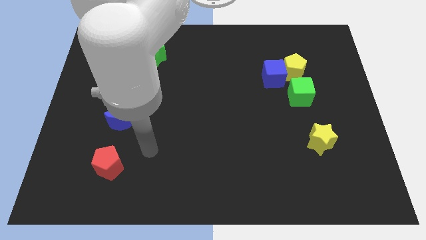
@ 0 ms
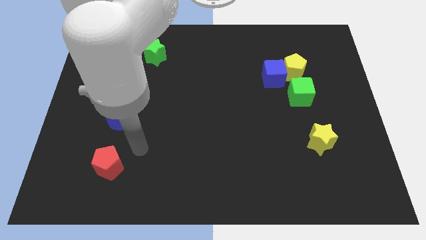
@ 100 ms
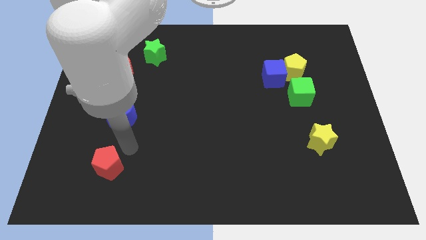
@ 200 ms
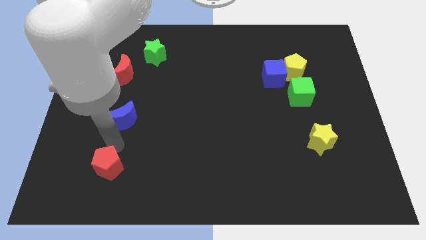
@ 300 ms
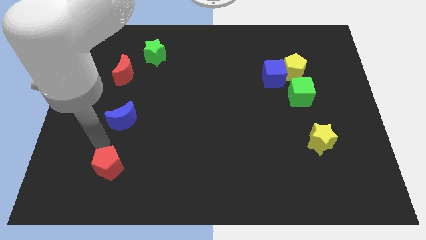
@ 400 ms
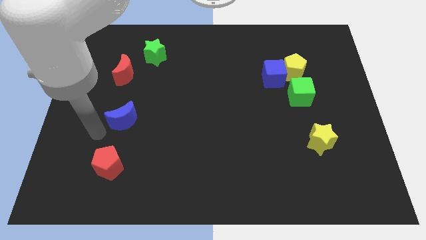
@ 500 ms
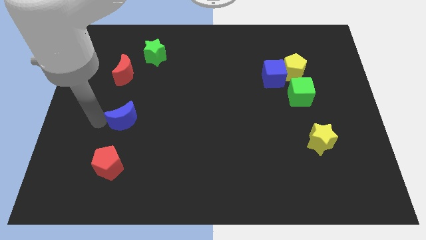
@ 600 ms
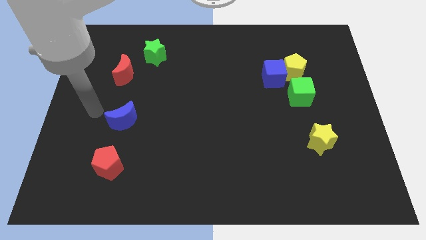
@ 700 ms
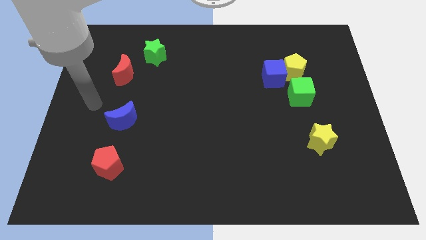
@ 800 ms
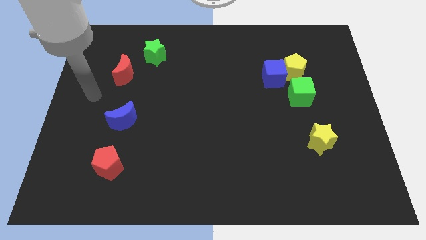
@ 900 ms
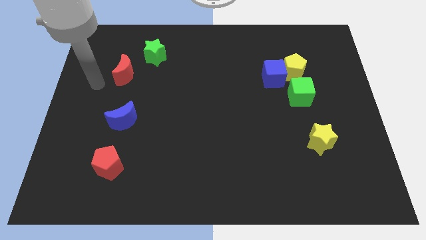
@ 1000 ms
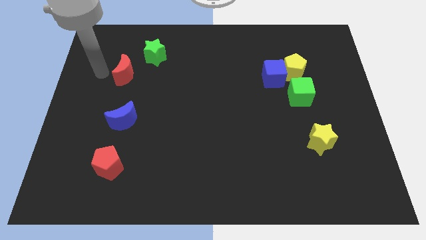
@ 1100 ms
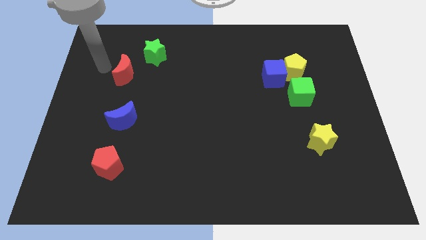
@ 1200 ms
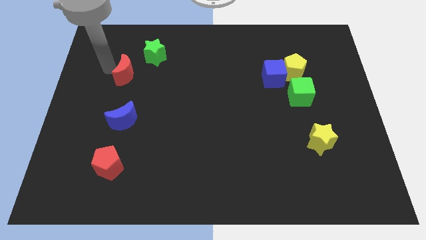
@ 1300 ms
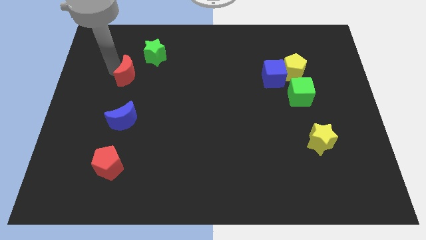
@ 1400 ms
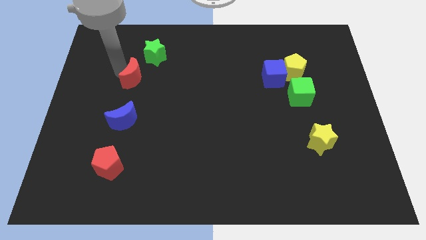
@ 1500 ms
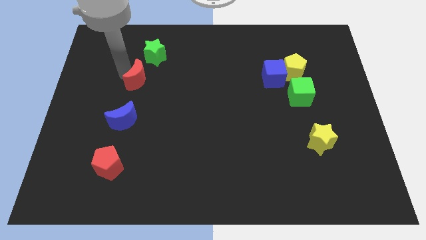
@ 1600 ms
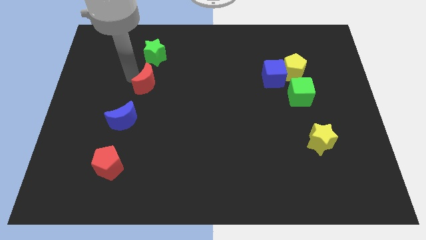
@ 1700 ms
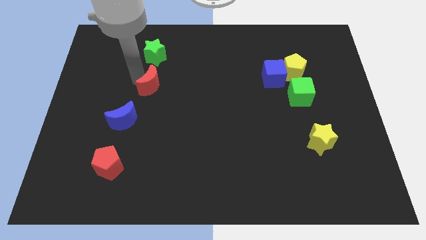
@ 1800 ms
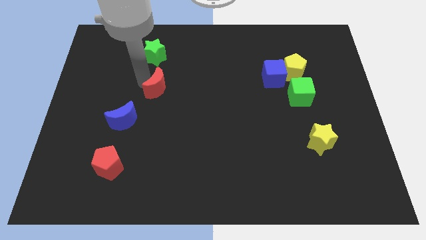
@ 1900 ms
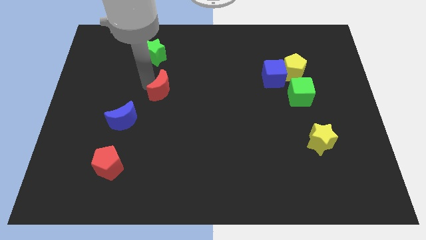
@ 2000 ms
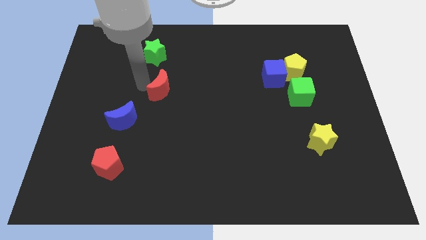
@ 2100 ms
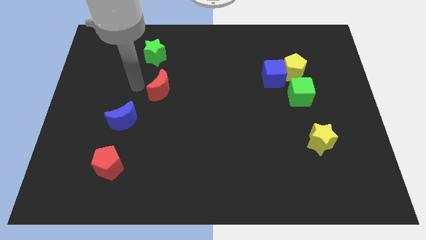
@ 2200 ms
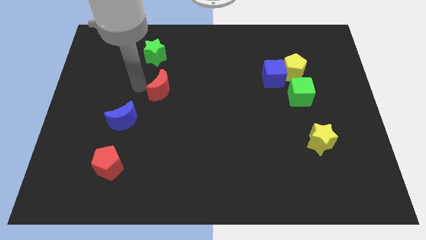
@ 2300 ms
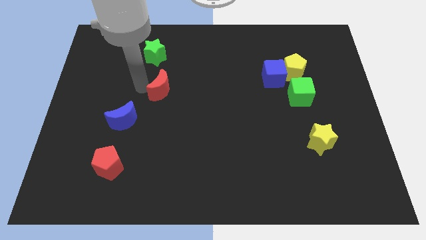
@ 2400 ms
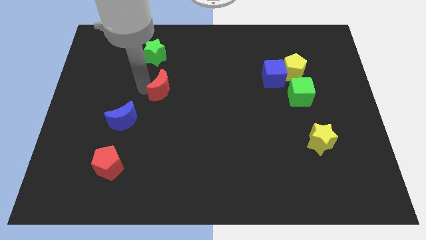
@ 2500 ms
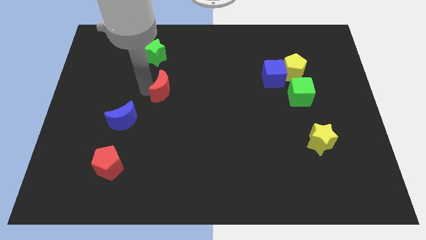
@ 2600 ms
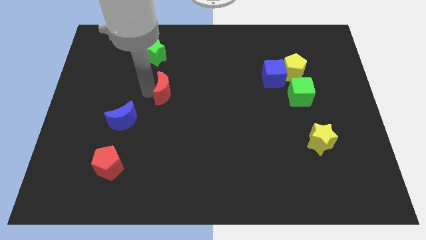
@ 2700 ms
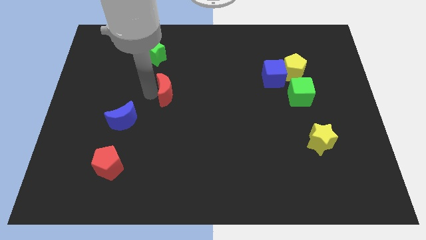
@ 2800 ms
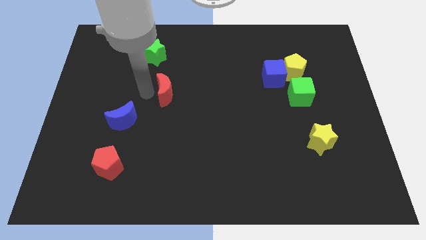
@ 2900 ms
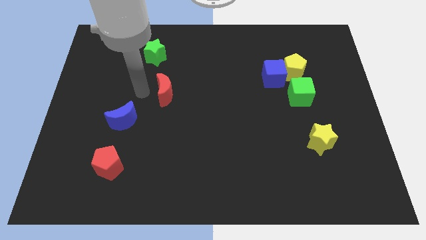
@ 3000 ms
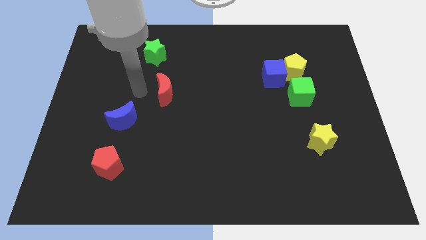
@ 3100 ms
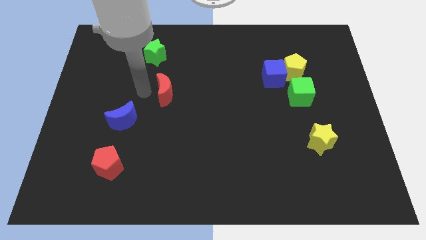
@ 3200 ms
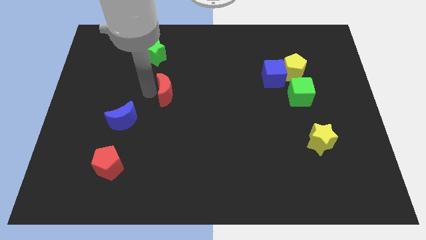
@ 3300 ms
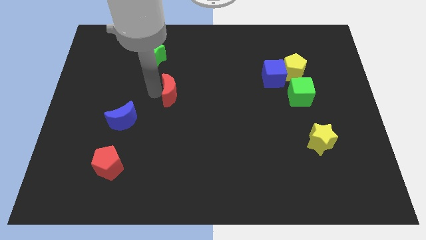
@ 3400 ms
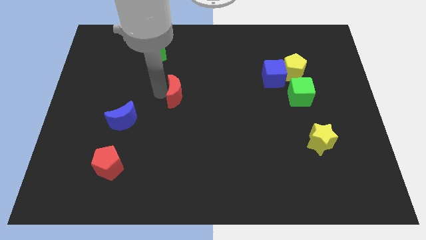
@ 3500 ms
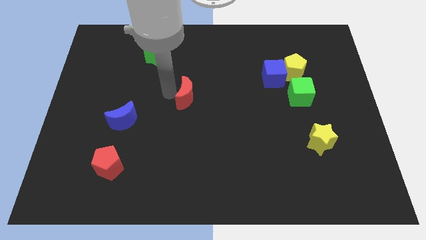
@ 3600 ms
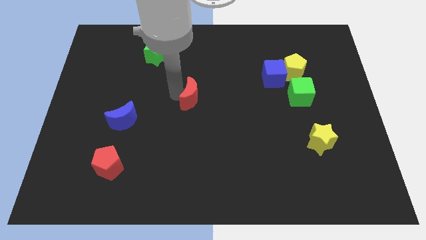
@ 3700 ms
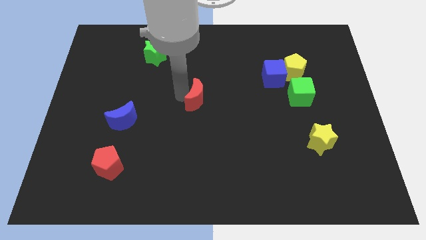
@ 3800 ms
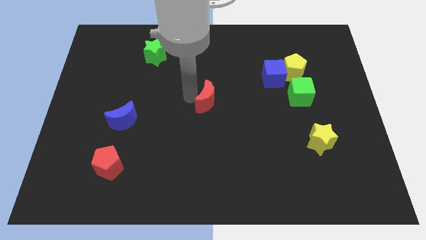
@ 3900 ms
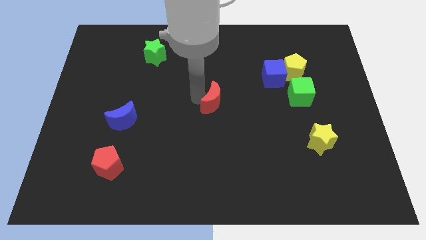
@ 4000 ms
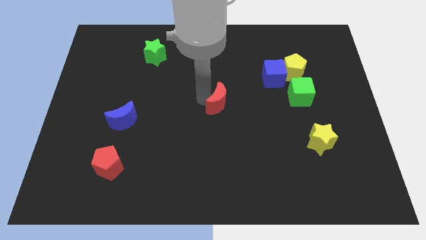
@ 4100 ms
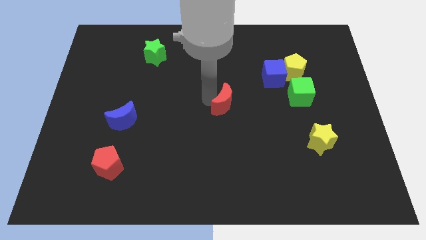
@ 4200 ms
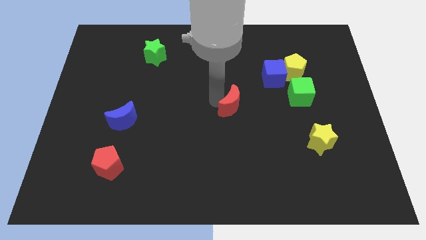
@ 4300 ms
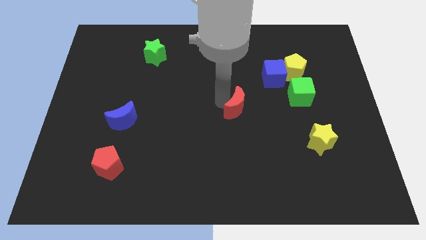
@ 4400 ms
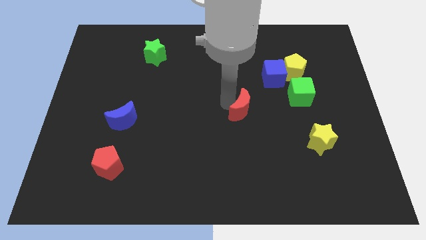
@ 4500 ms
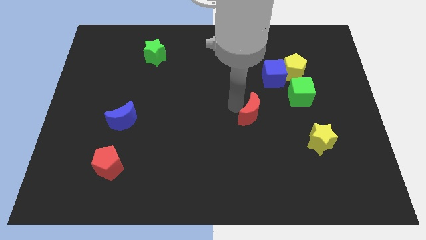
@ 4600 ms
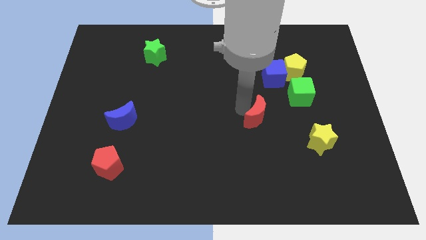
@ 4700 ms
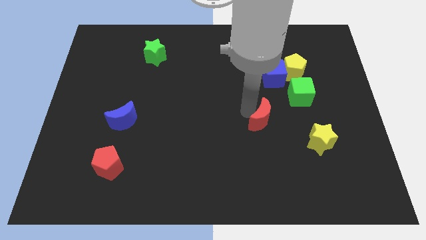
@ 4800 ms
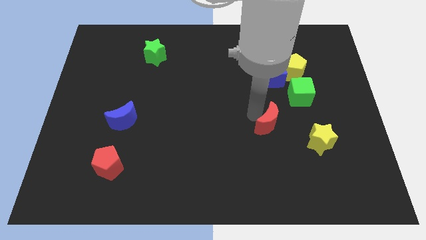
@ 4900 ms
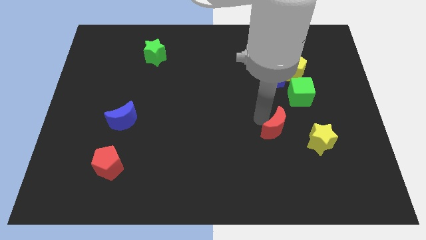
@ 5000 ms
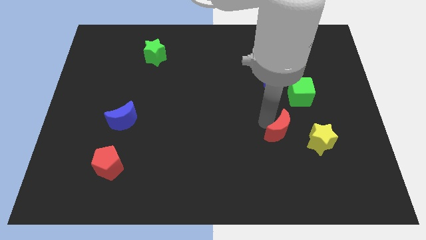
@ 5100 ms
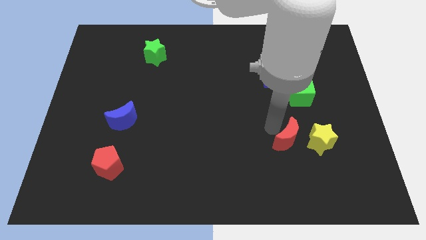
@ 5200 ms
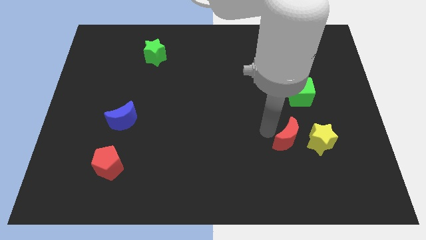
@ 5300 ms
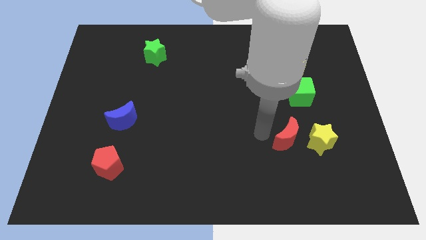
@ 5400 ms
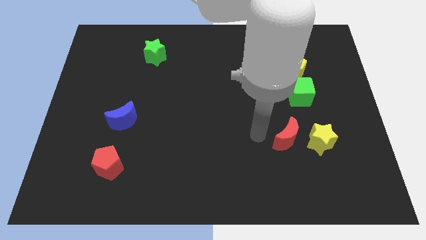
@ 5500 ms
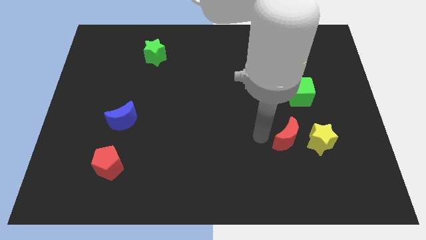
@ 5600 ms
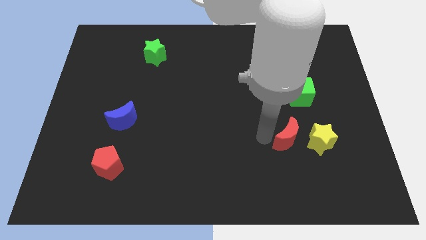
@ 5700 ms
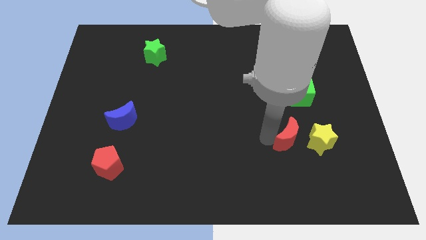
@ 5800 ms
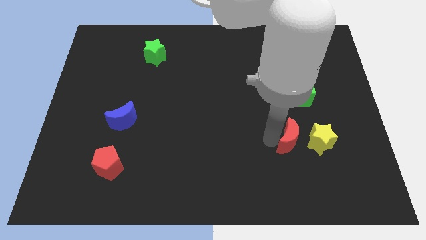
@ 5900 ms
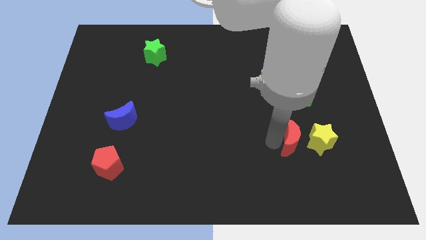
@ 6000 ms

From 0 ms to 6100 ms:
push the red moon to the yellow star

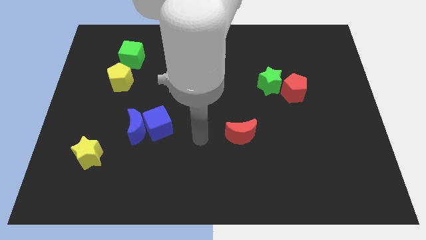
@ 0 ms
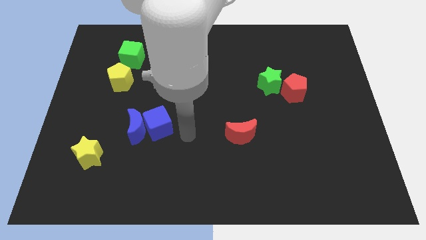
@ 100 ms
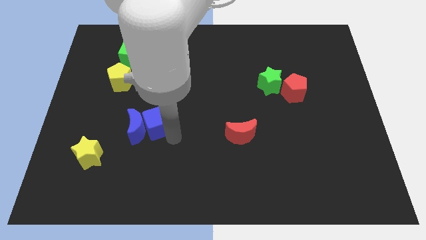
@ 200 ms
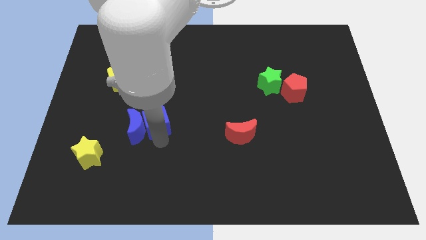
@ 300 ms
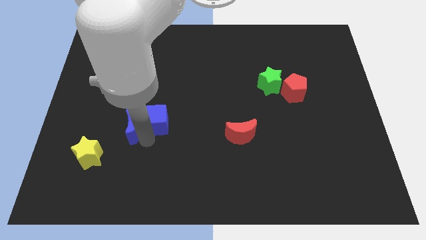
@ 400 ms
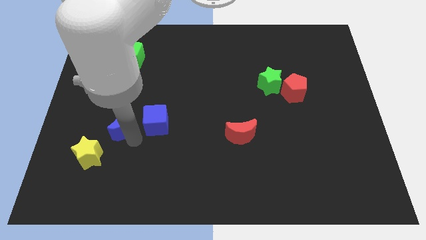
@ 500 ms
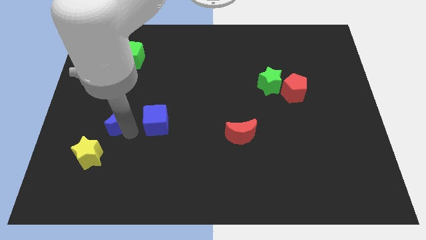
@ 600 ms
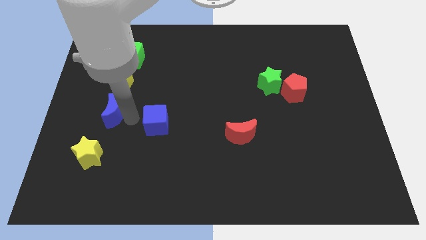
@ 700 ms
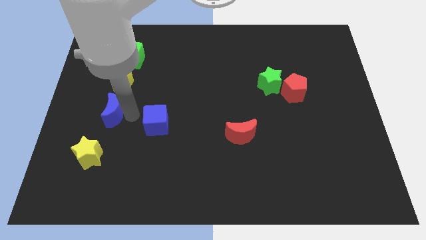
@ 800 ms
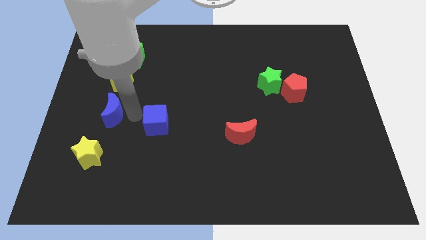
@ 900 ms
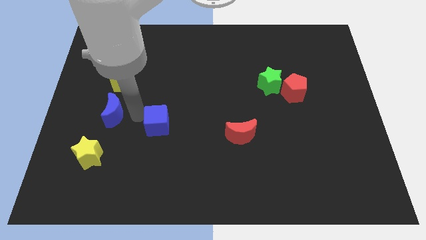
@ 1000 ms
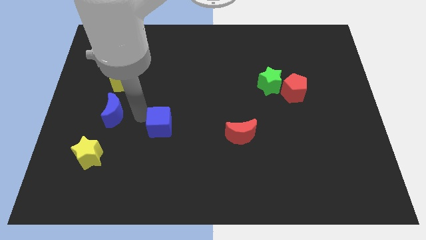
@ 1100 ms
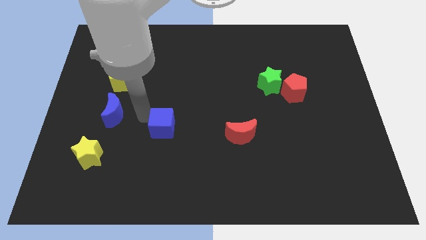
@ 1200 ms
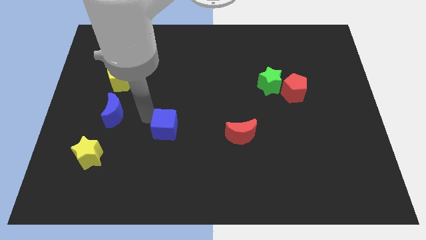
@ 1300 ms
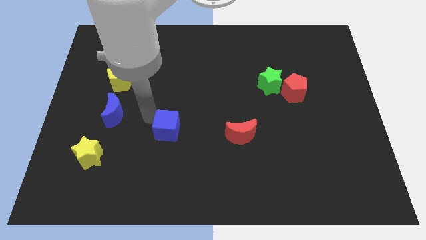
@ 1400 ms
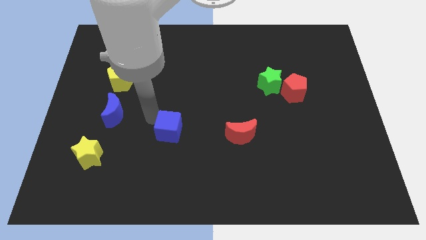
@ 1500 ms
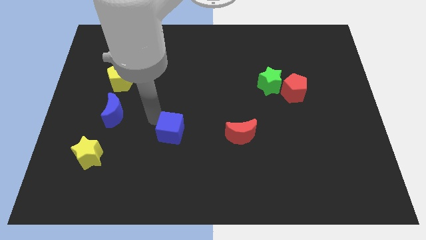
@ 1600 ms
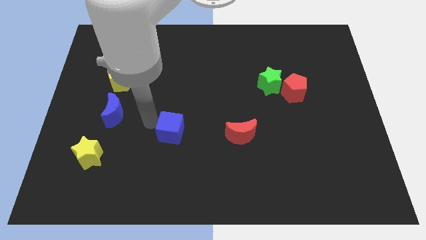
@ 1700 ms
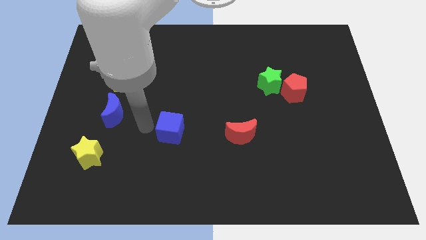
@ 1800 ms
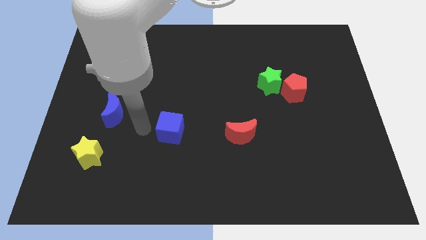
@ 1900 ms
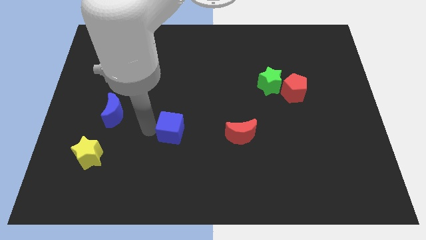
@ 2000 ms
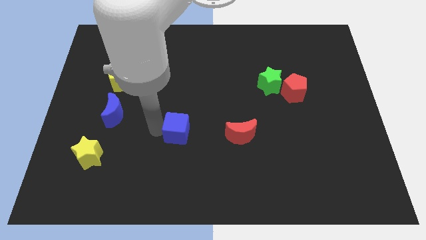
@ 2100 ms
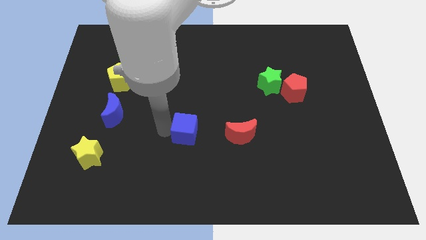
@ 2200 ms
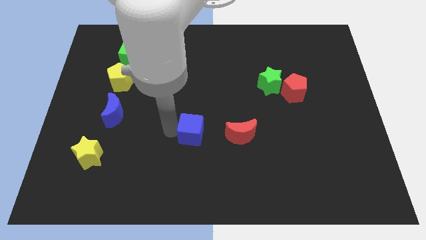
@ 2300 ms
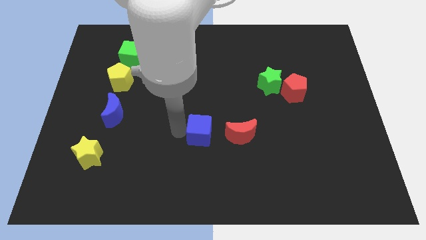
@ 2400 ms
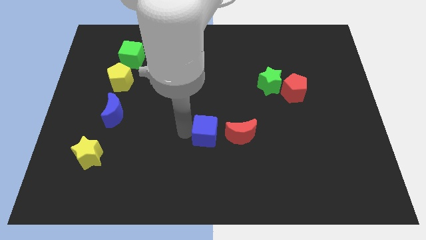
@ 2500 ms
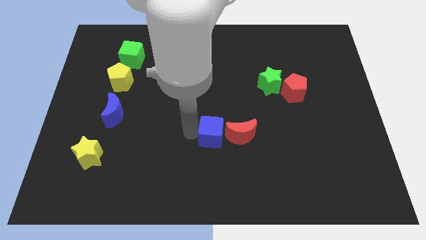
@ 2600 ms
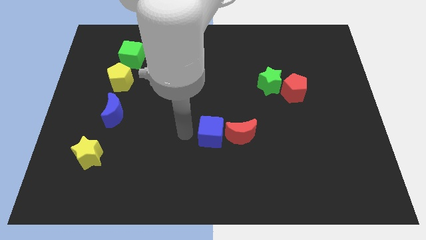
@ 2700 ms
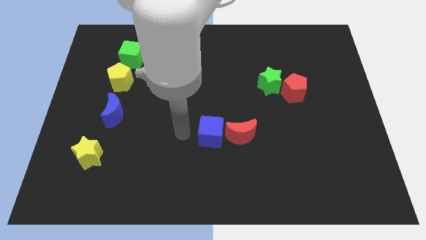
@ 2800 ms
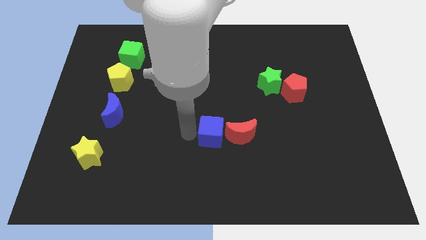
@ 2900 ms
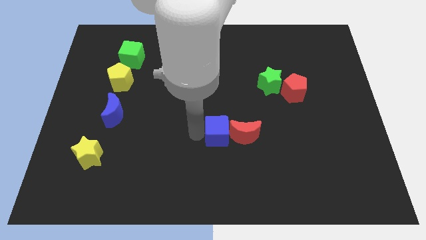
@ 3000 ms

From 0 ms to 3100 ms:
move the blue cube to the red moon
